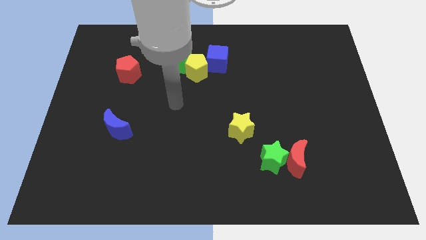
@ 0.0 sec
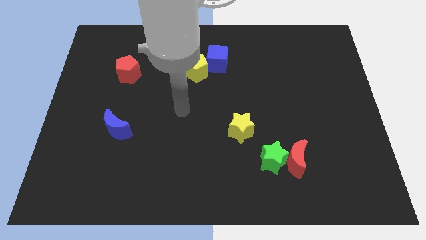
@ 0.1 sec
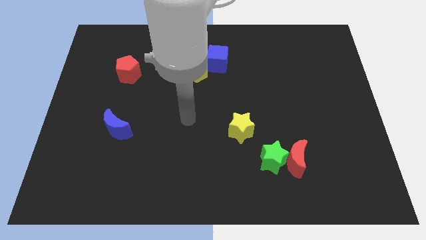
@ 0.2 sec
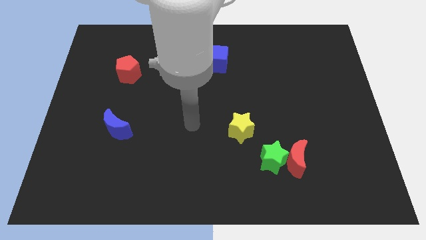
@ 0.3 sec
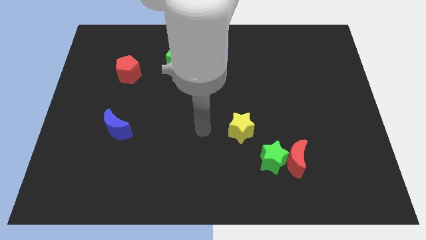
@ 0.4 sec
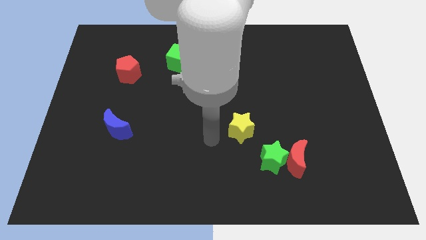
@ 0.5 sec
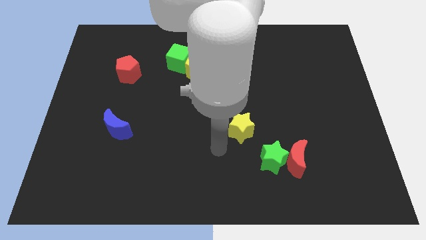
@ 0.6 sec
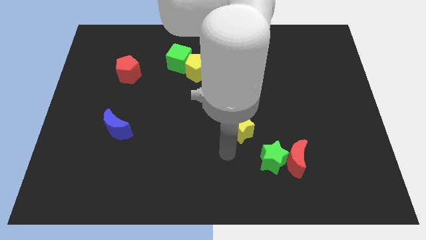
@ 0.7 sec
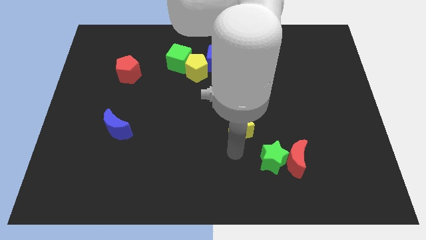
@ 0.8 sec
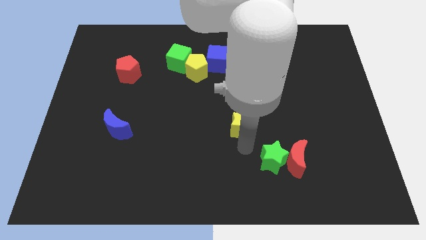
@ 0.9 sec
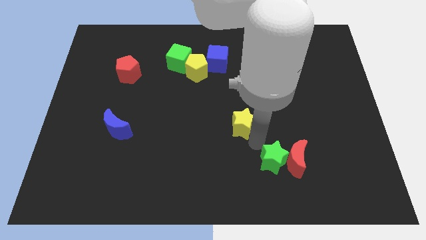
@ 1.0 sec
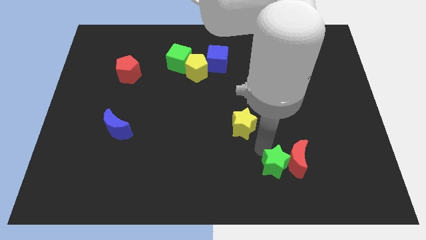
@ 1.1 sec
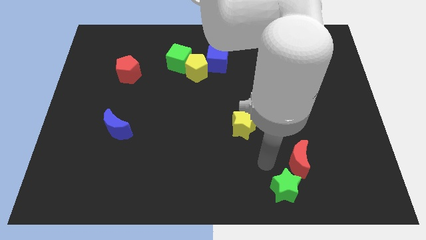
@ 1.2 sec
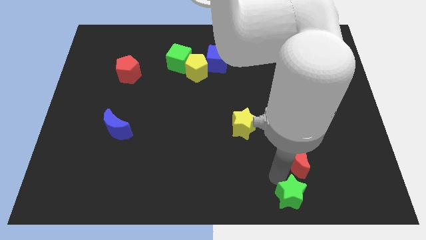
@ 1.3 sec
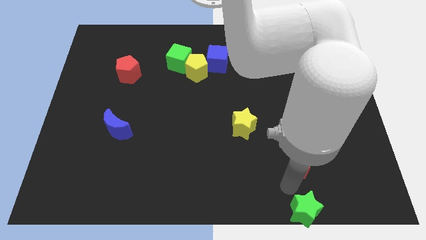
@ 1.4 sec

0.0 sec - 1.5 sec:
pull the red moon apart from the green star

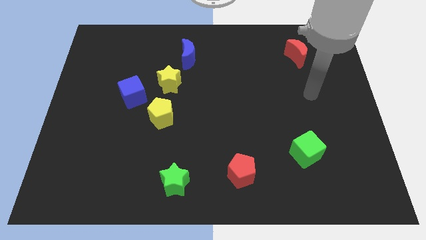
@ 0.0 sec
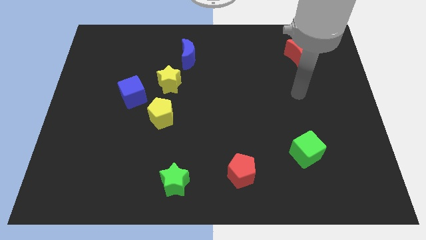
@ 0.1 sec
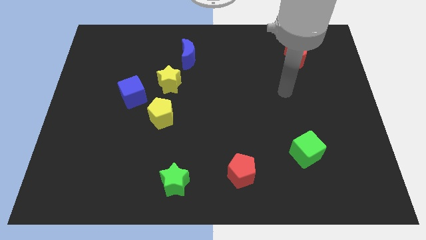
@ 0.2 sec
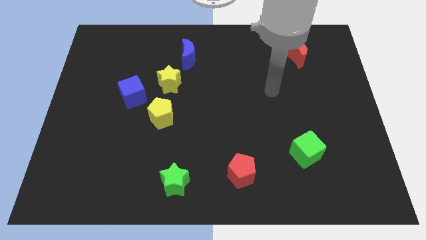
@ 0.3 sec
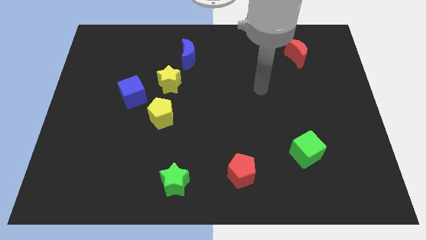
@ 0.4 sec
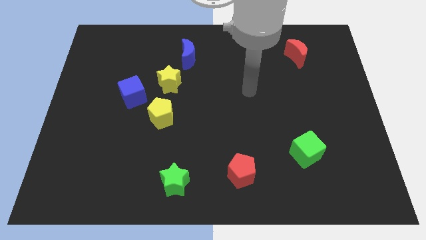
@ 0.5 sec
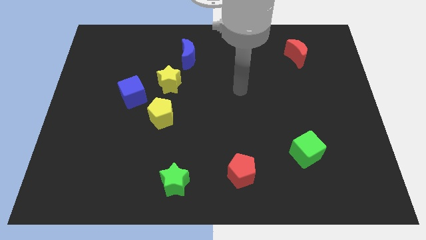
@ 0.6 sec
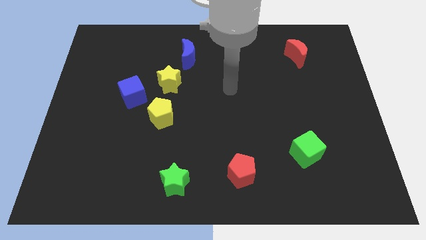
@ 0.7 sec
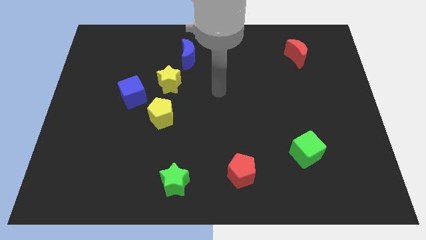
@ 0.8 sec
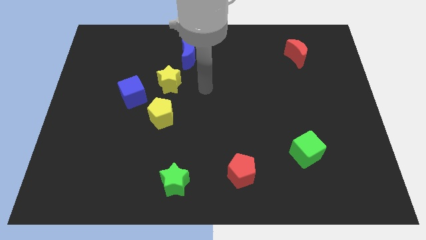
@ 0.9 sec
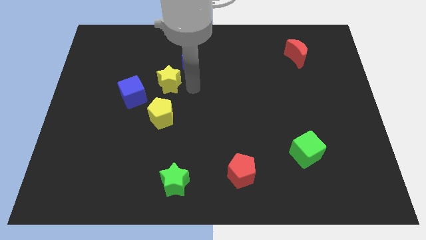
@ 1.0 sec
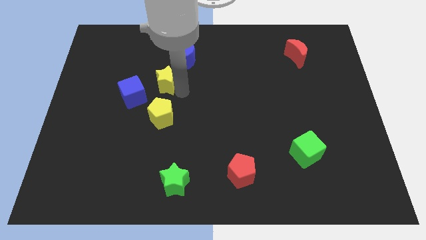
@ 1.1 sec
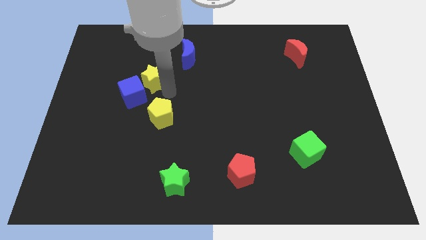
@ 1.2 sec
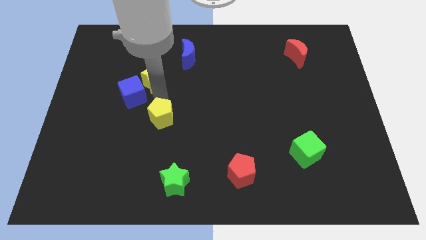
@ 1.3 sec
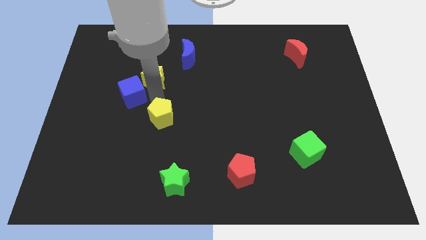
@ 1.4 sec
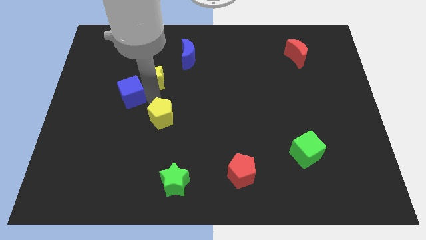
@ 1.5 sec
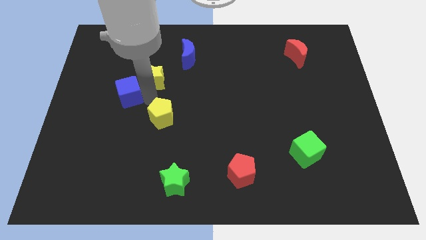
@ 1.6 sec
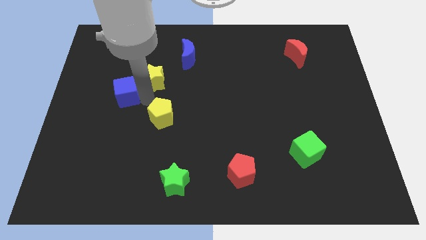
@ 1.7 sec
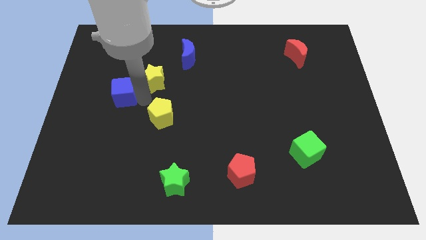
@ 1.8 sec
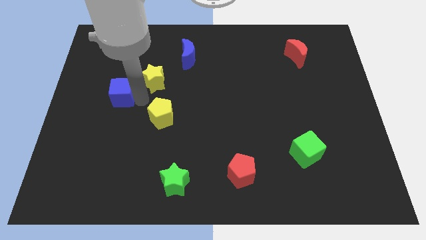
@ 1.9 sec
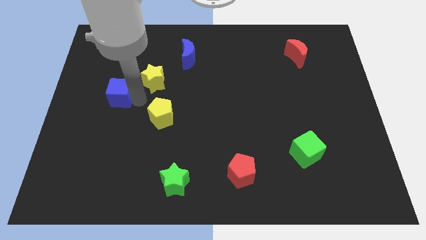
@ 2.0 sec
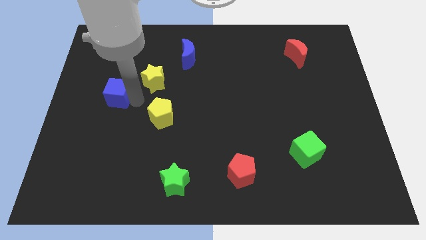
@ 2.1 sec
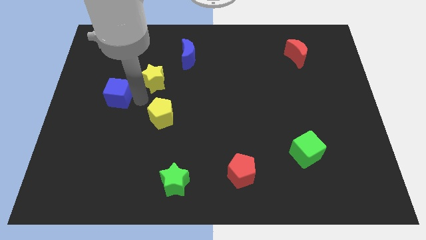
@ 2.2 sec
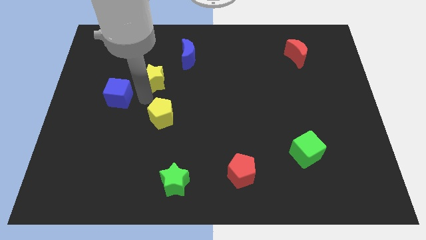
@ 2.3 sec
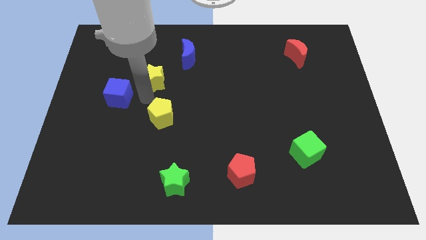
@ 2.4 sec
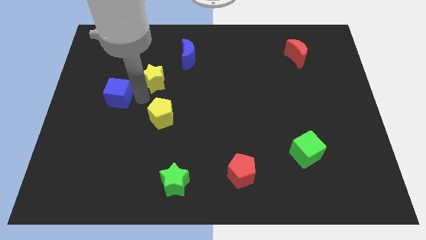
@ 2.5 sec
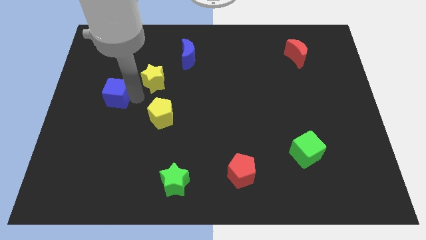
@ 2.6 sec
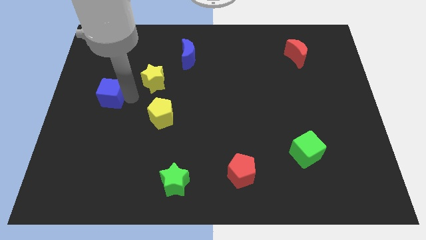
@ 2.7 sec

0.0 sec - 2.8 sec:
separate the blue cube from the yellow star and yellow pentagon

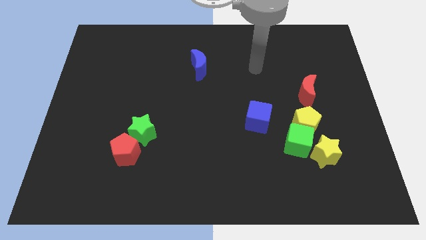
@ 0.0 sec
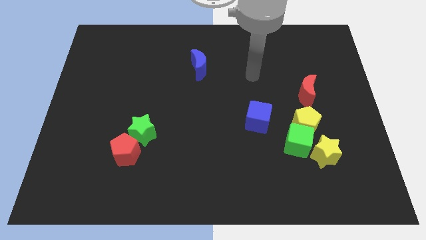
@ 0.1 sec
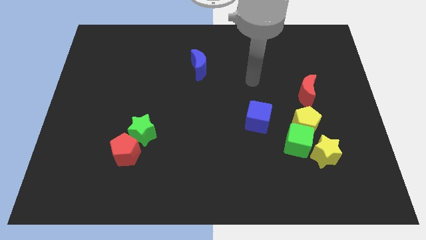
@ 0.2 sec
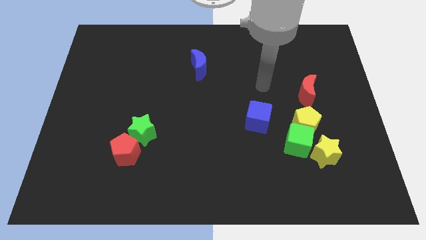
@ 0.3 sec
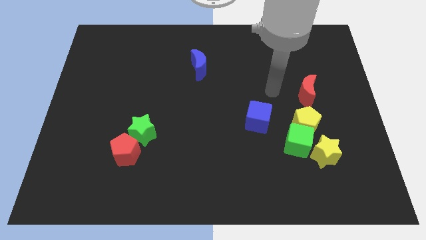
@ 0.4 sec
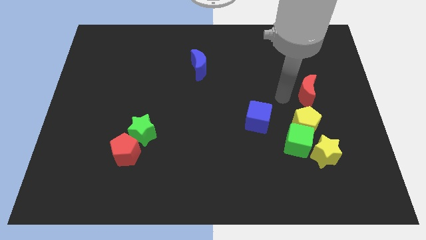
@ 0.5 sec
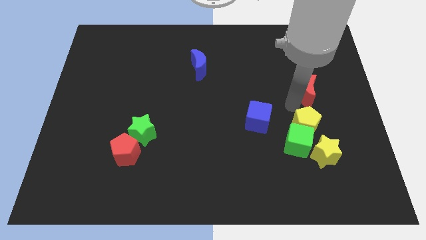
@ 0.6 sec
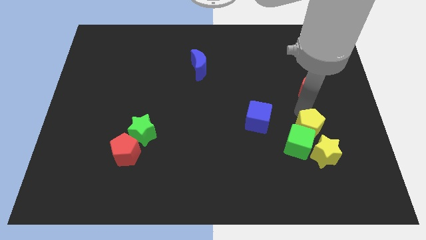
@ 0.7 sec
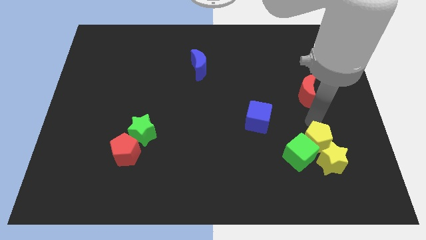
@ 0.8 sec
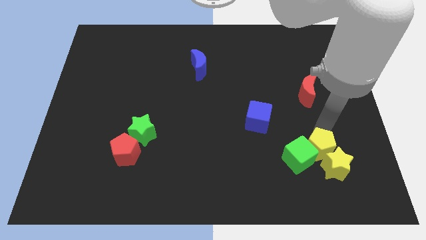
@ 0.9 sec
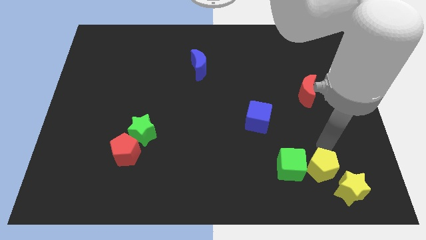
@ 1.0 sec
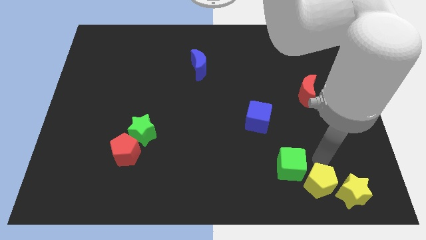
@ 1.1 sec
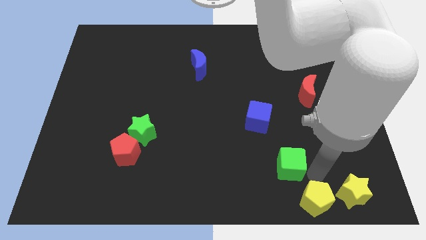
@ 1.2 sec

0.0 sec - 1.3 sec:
pull the green cube apart from the yellow pentagon and yellow star

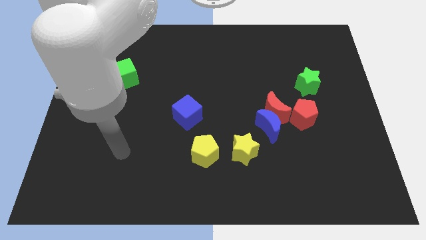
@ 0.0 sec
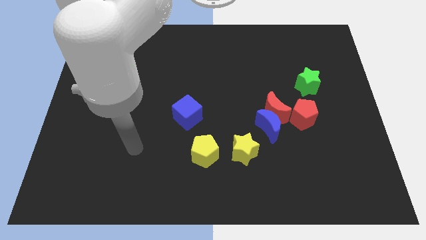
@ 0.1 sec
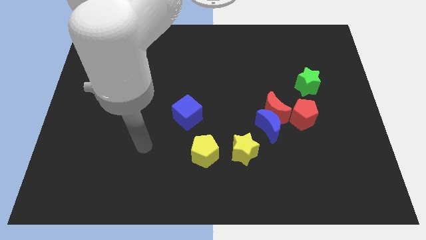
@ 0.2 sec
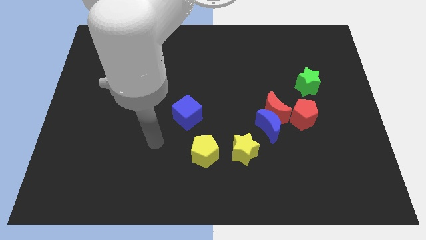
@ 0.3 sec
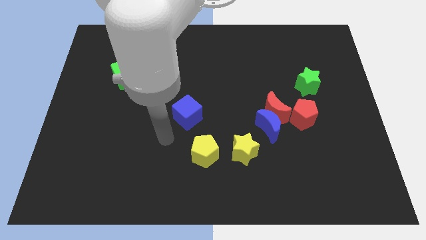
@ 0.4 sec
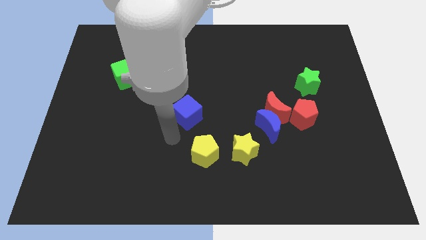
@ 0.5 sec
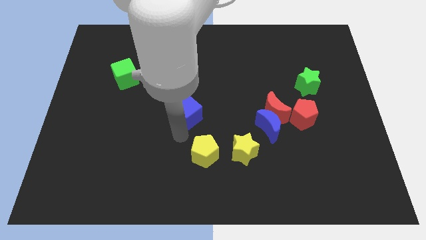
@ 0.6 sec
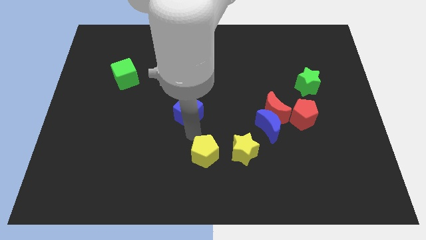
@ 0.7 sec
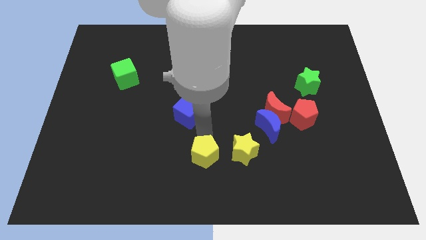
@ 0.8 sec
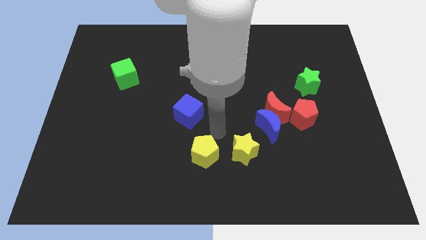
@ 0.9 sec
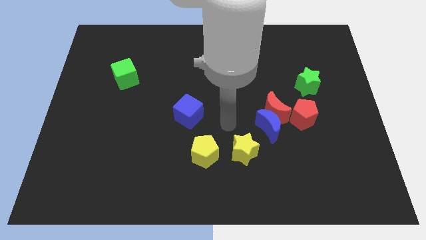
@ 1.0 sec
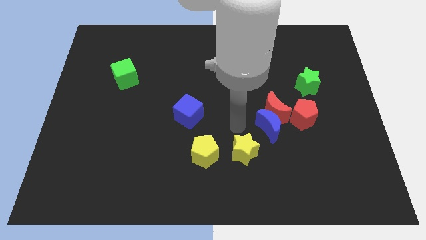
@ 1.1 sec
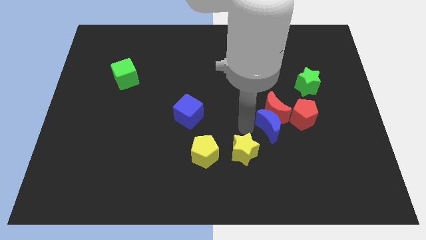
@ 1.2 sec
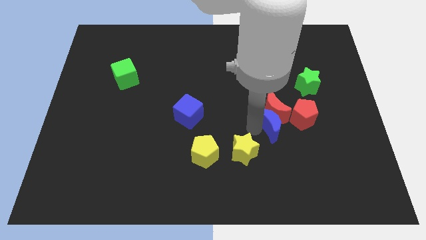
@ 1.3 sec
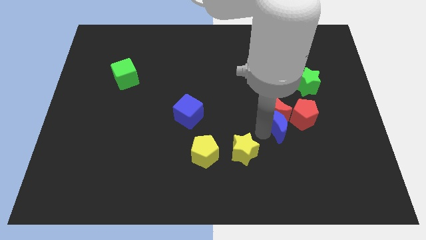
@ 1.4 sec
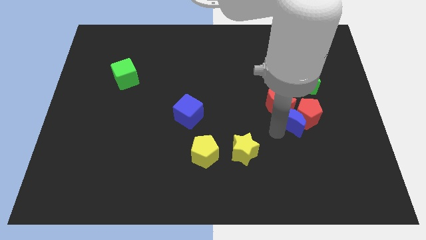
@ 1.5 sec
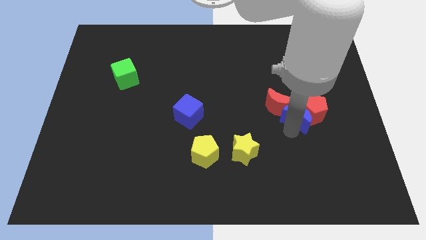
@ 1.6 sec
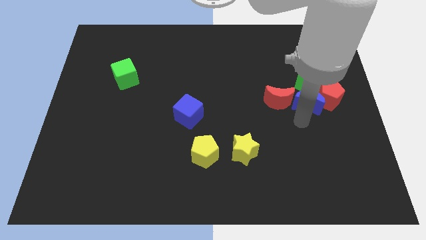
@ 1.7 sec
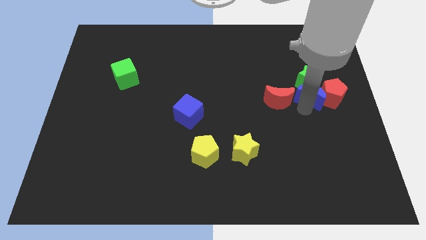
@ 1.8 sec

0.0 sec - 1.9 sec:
pull the red moon apart from the blue moon and red pentagon

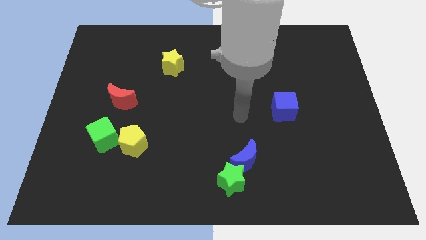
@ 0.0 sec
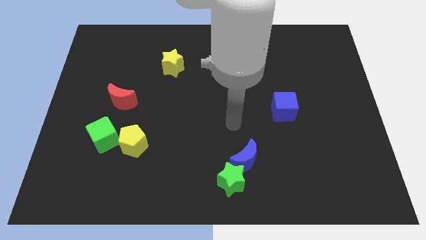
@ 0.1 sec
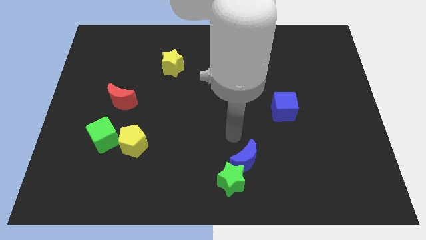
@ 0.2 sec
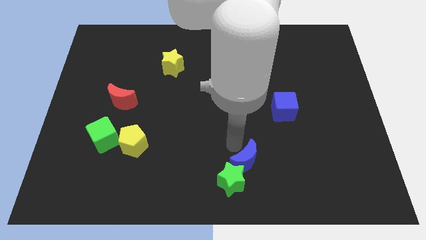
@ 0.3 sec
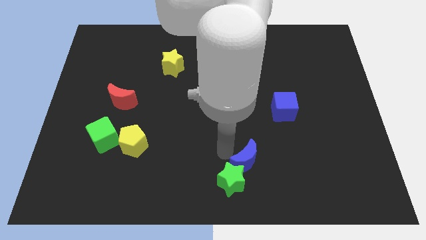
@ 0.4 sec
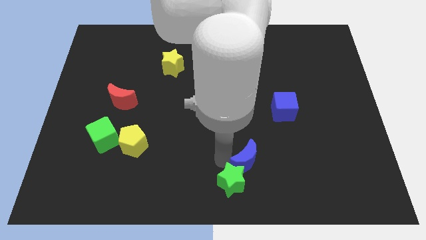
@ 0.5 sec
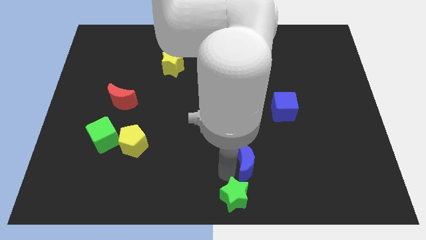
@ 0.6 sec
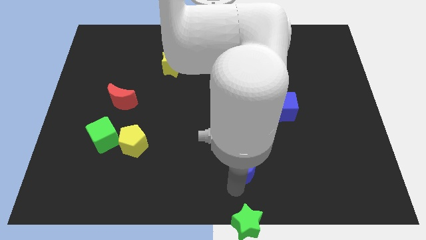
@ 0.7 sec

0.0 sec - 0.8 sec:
pull the blue moon apart from the green star

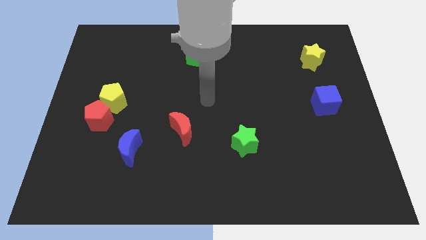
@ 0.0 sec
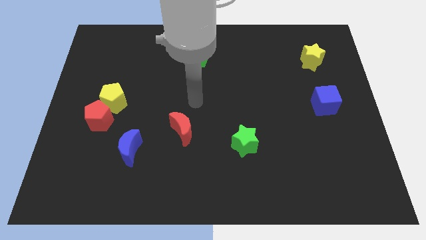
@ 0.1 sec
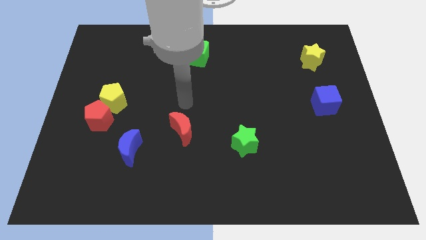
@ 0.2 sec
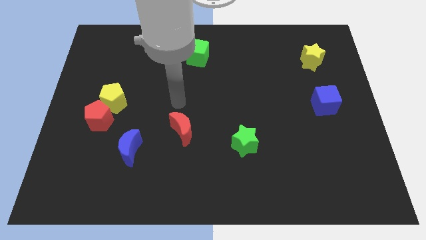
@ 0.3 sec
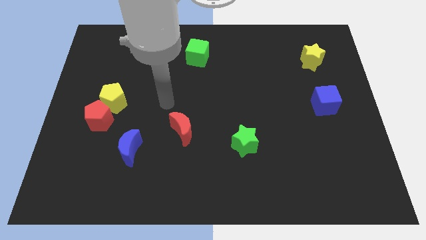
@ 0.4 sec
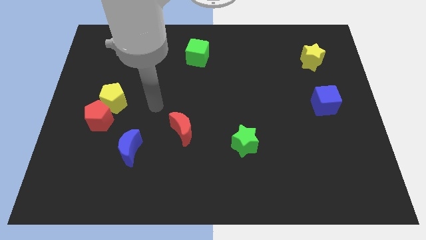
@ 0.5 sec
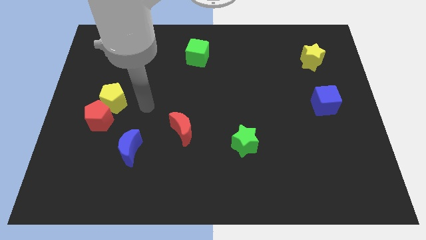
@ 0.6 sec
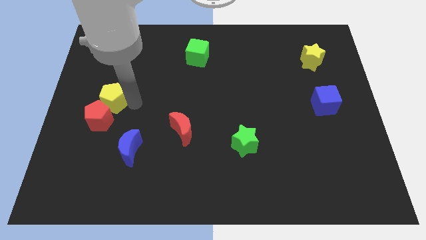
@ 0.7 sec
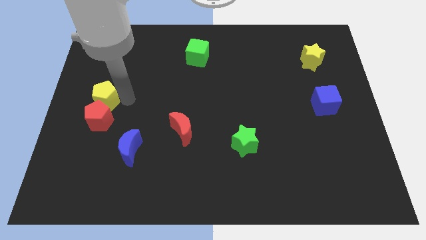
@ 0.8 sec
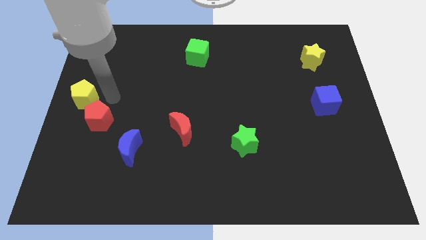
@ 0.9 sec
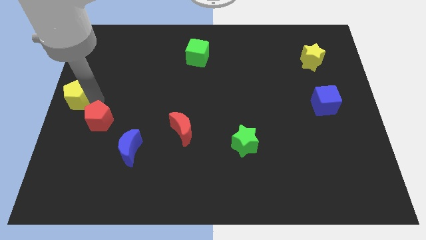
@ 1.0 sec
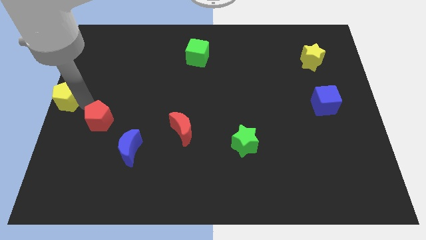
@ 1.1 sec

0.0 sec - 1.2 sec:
pull the red pentagon apart from the yellow pentagon
